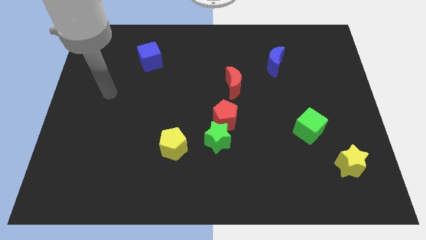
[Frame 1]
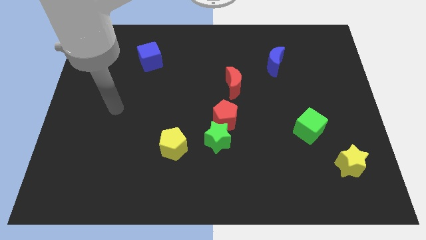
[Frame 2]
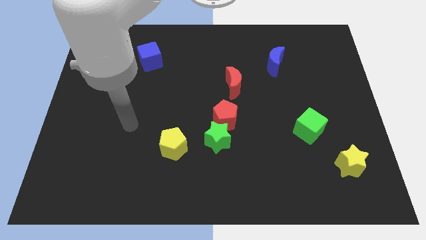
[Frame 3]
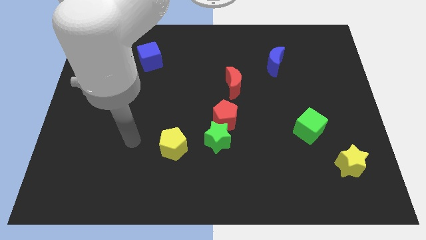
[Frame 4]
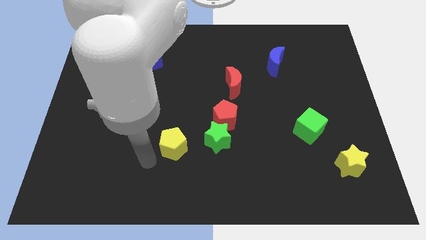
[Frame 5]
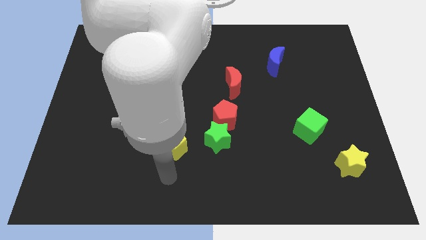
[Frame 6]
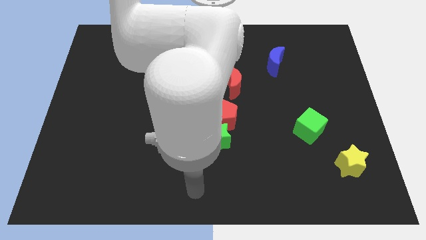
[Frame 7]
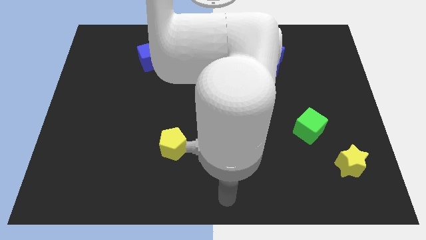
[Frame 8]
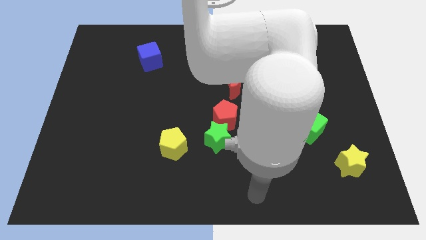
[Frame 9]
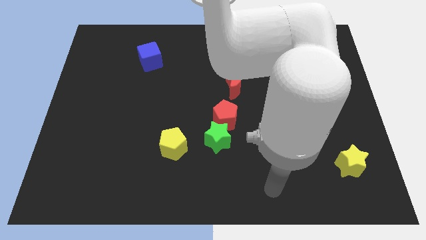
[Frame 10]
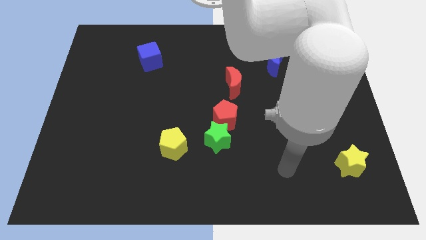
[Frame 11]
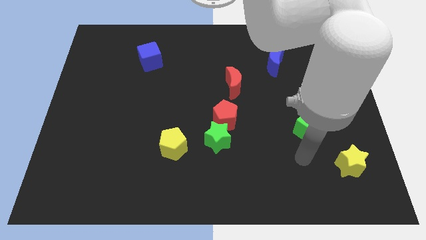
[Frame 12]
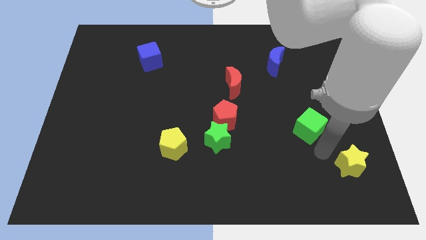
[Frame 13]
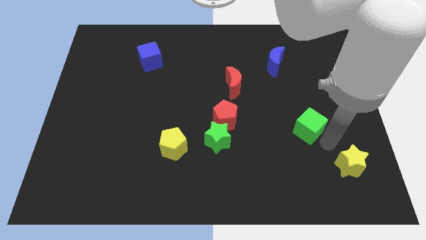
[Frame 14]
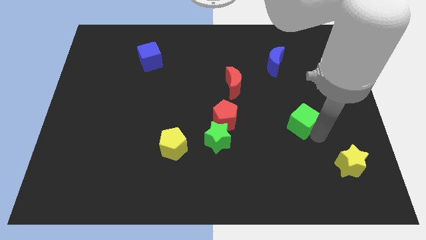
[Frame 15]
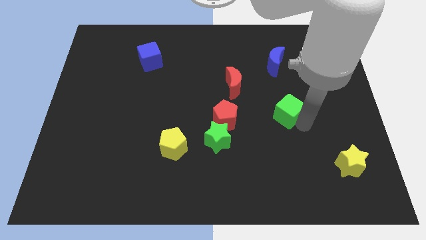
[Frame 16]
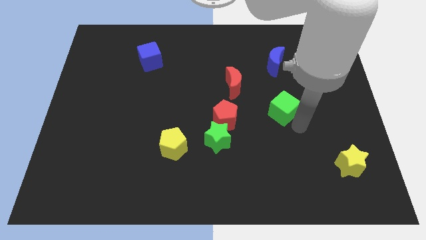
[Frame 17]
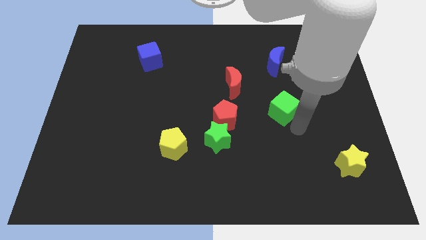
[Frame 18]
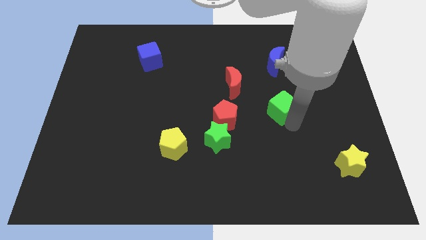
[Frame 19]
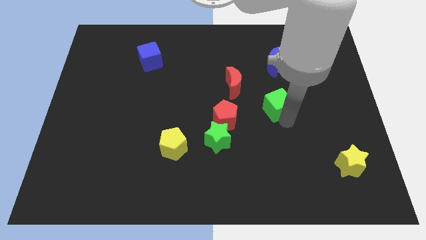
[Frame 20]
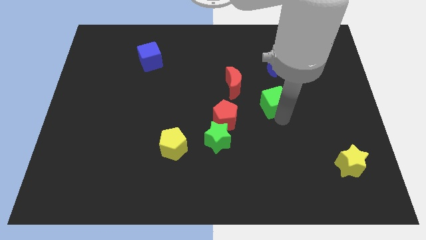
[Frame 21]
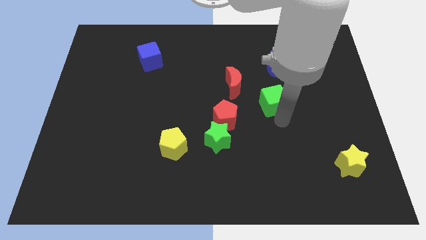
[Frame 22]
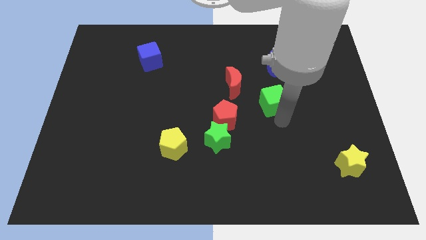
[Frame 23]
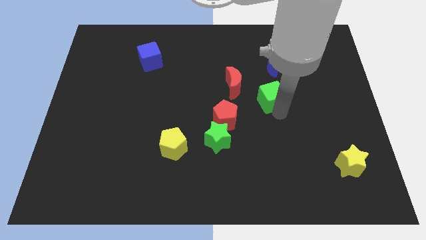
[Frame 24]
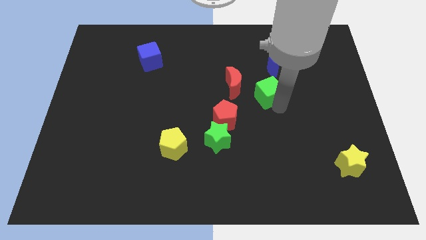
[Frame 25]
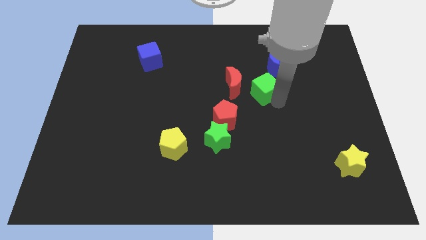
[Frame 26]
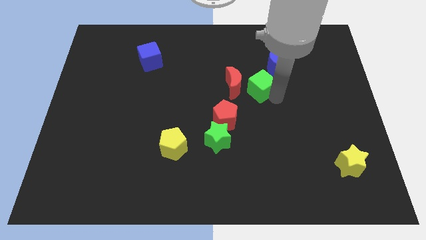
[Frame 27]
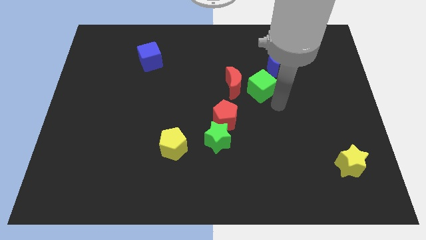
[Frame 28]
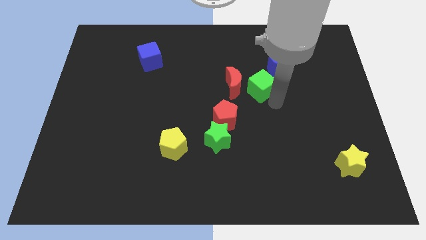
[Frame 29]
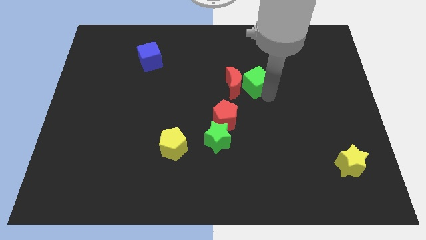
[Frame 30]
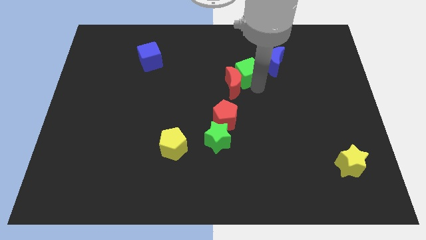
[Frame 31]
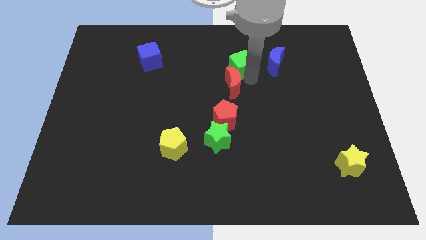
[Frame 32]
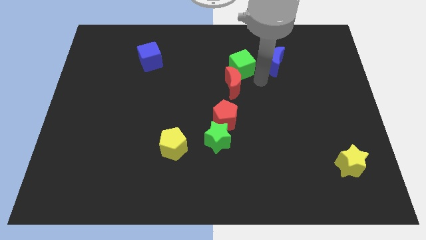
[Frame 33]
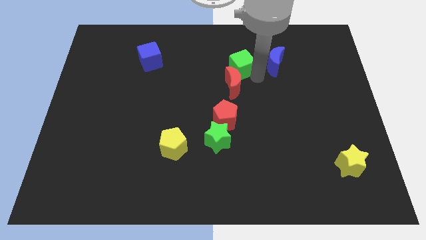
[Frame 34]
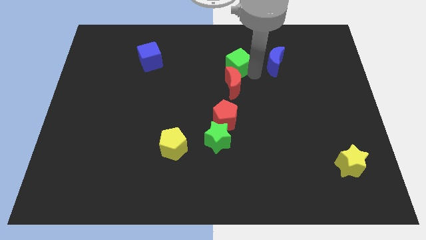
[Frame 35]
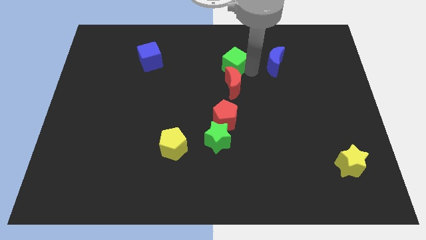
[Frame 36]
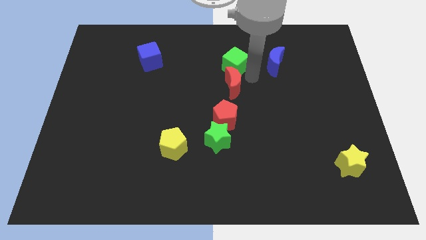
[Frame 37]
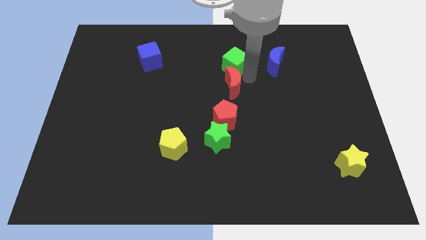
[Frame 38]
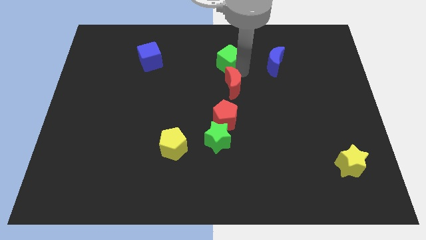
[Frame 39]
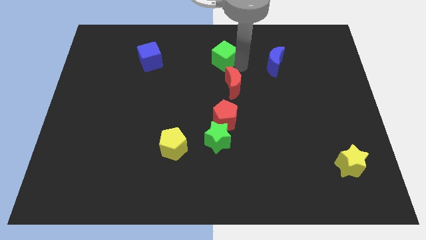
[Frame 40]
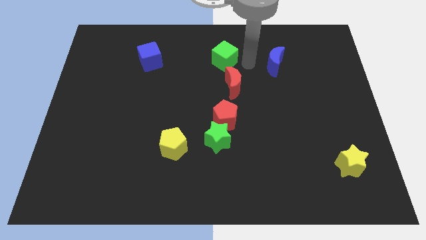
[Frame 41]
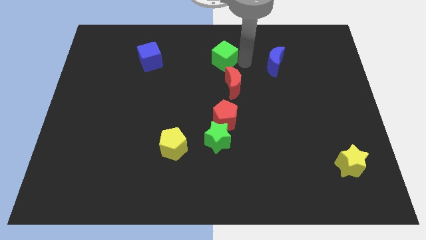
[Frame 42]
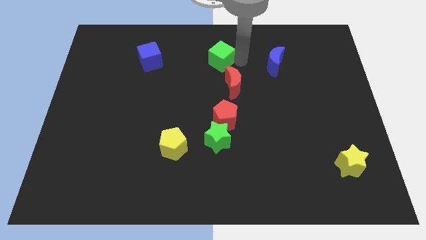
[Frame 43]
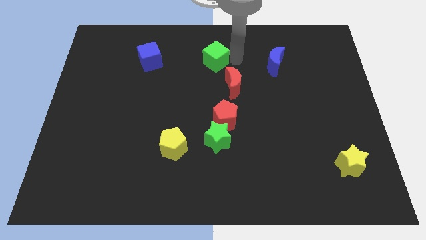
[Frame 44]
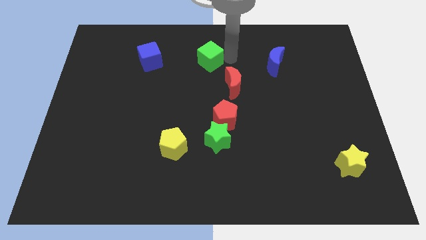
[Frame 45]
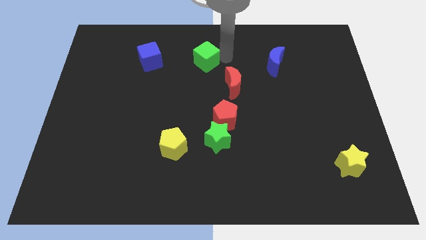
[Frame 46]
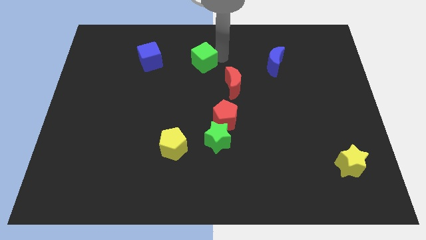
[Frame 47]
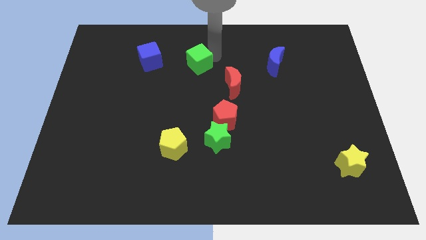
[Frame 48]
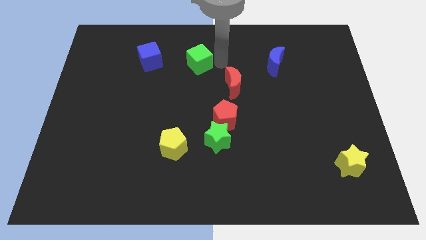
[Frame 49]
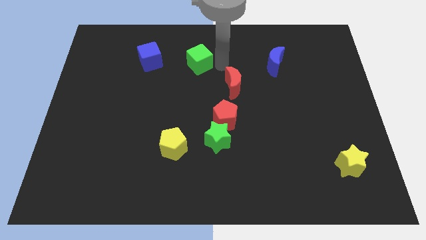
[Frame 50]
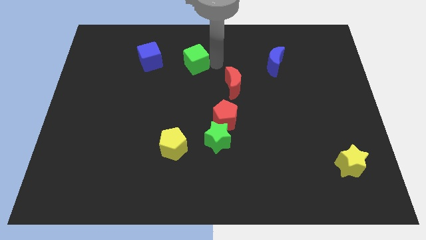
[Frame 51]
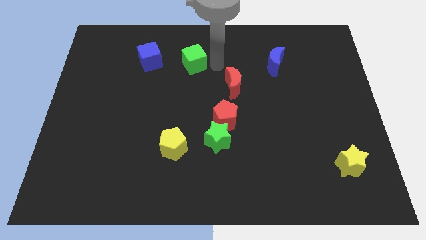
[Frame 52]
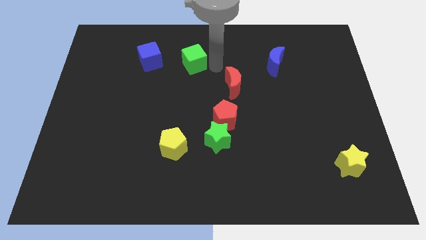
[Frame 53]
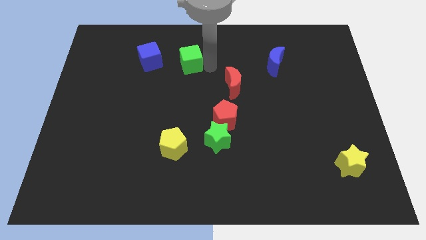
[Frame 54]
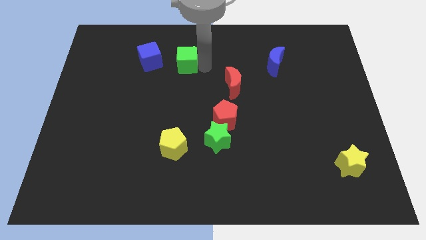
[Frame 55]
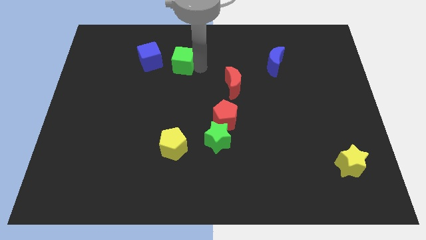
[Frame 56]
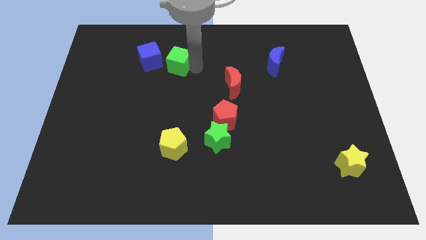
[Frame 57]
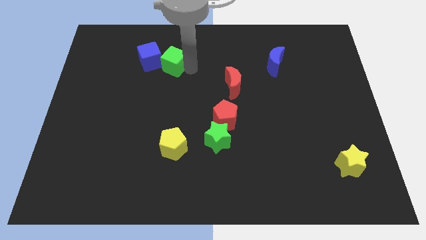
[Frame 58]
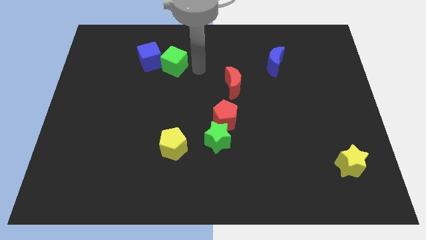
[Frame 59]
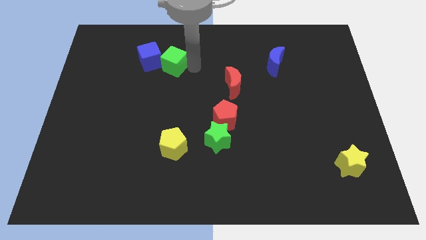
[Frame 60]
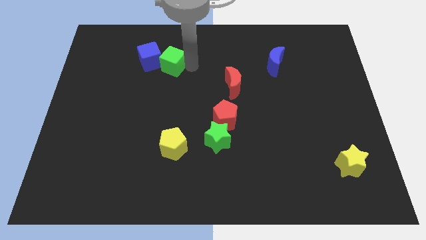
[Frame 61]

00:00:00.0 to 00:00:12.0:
move the green cube to the blue cube

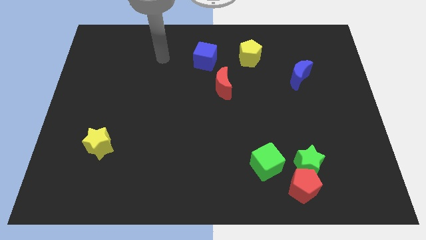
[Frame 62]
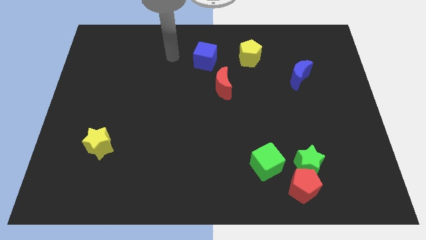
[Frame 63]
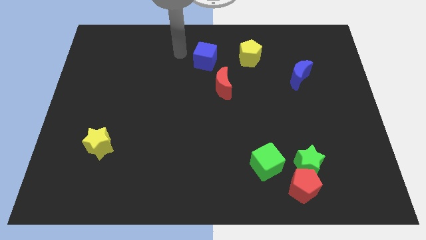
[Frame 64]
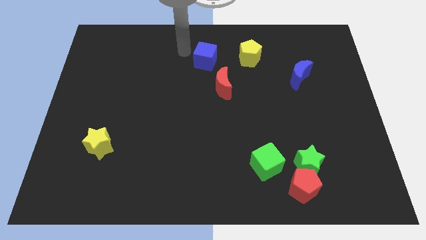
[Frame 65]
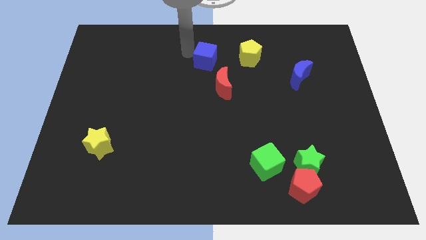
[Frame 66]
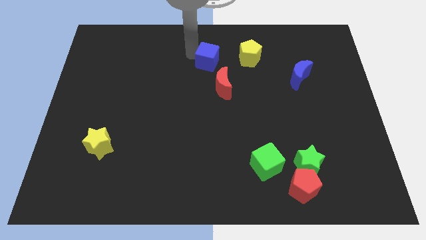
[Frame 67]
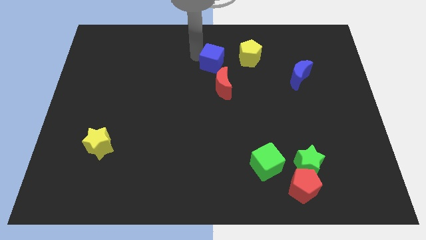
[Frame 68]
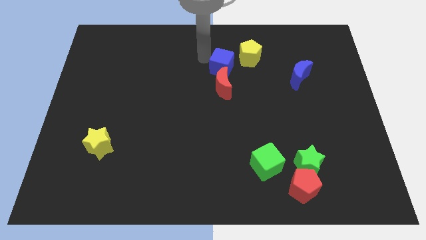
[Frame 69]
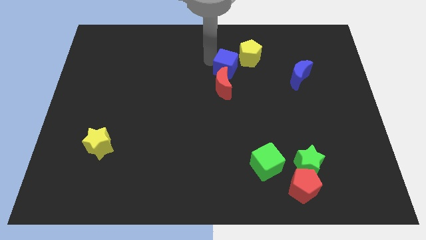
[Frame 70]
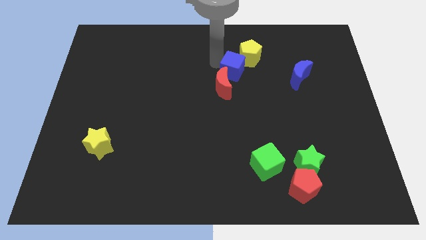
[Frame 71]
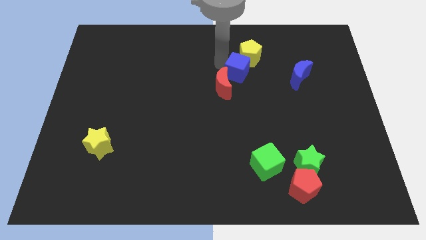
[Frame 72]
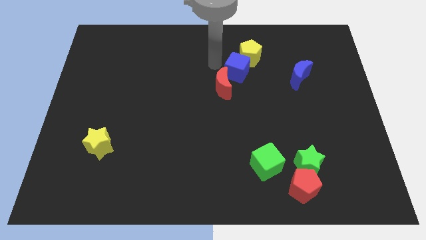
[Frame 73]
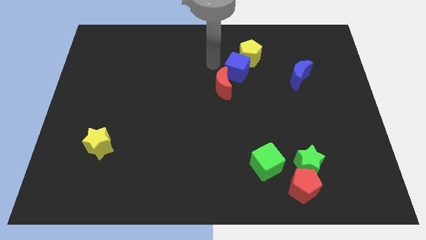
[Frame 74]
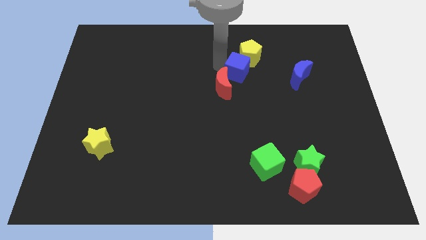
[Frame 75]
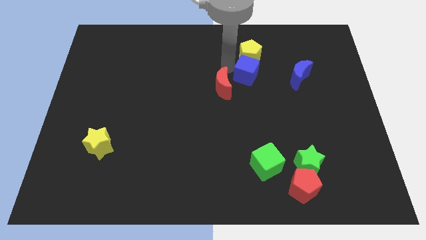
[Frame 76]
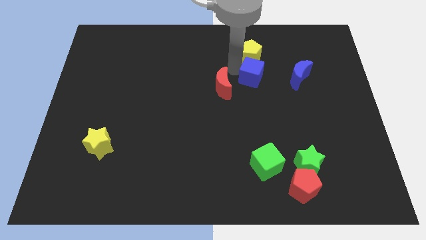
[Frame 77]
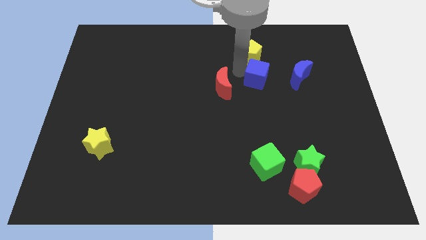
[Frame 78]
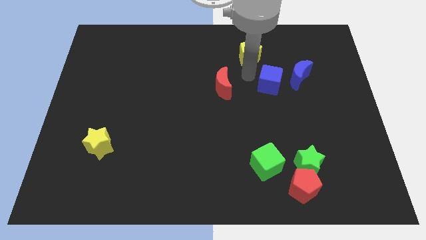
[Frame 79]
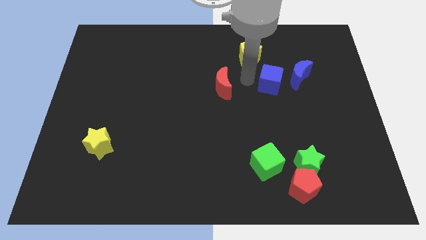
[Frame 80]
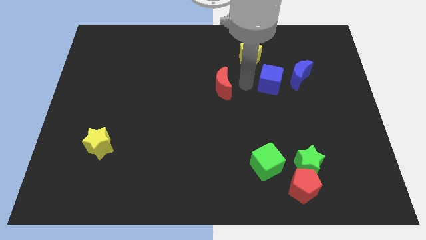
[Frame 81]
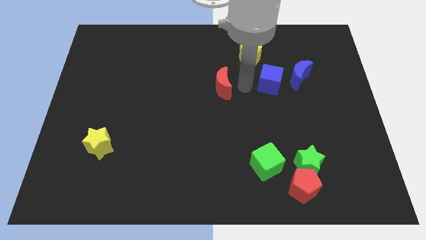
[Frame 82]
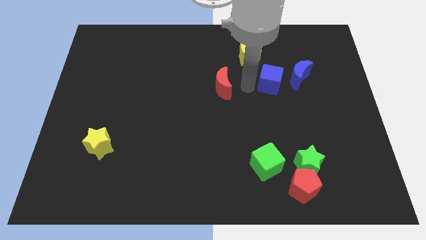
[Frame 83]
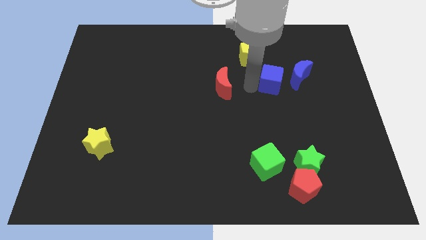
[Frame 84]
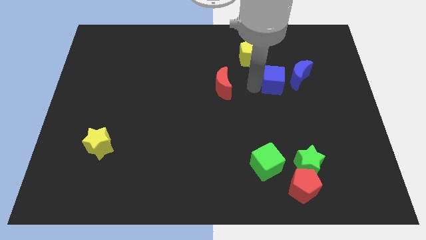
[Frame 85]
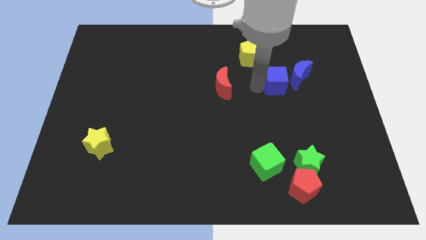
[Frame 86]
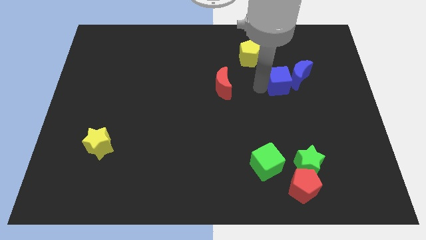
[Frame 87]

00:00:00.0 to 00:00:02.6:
move the blue cube next to the blue moon
